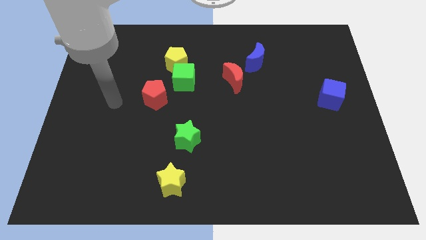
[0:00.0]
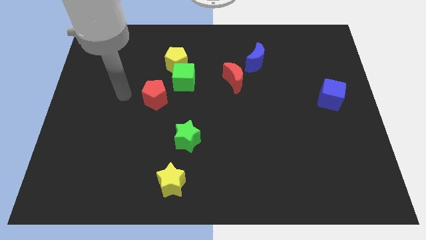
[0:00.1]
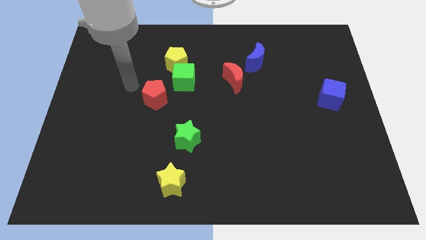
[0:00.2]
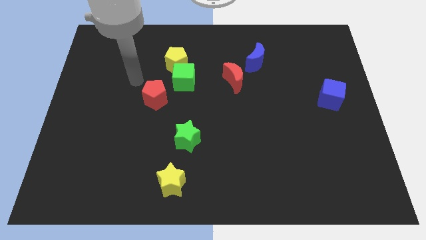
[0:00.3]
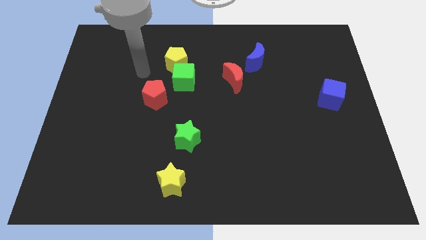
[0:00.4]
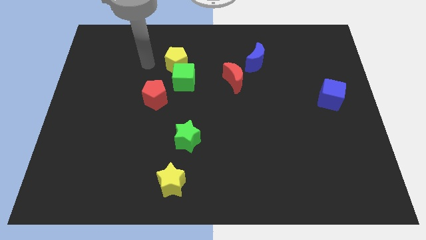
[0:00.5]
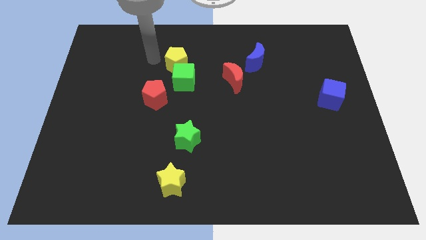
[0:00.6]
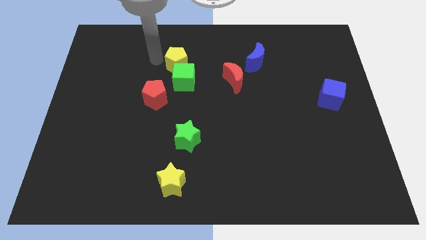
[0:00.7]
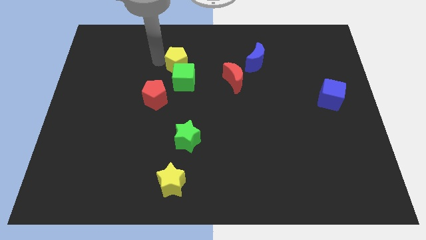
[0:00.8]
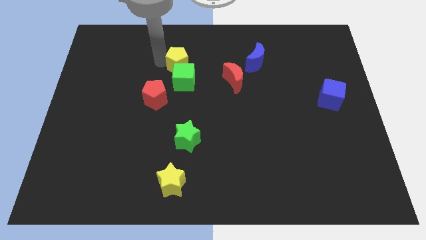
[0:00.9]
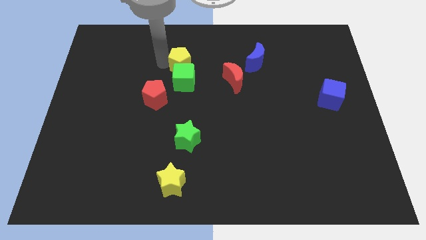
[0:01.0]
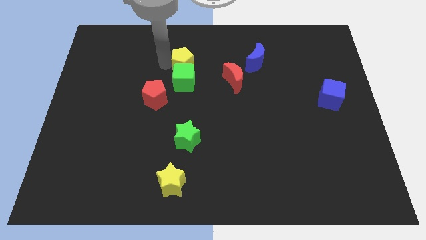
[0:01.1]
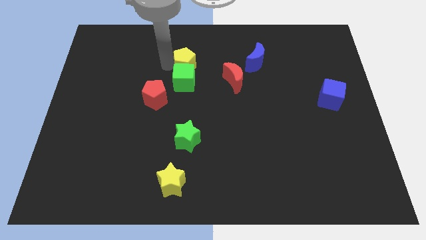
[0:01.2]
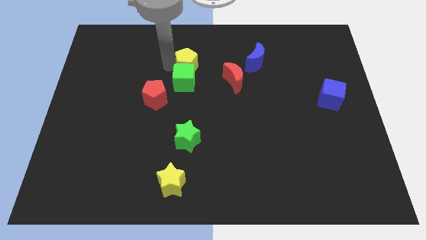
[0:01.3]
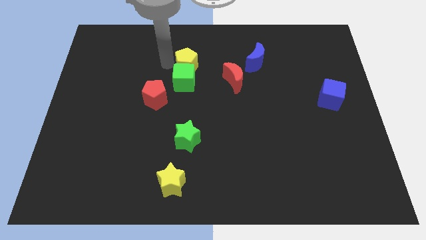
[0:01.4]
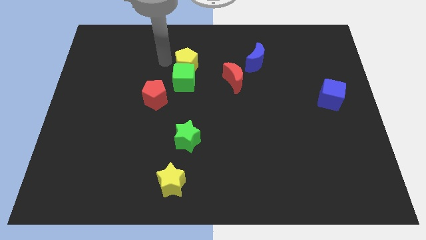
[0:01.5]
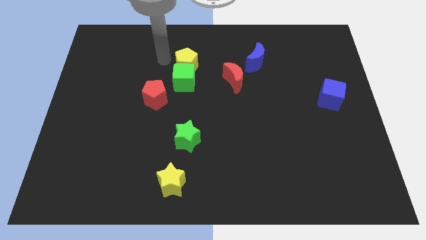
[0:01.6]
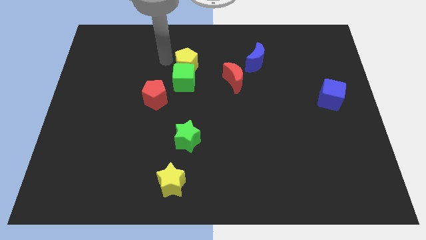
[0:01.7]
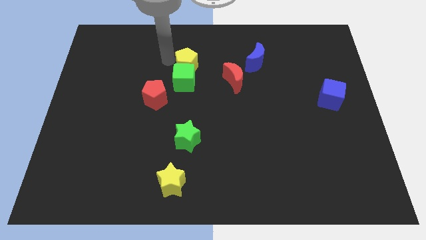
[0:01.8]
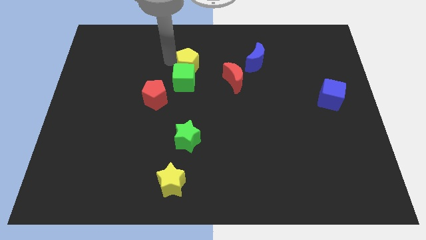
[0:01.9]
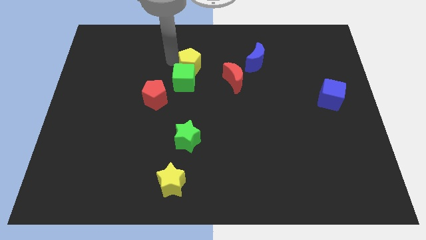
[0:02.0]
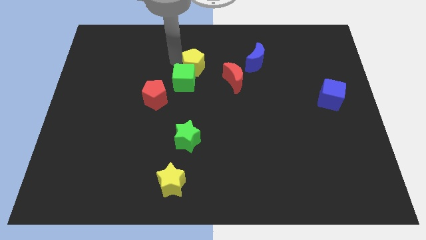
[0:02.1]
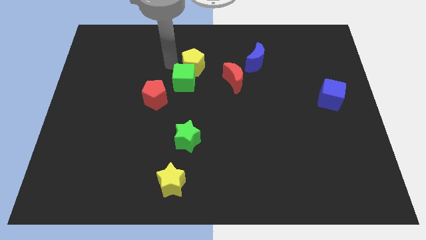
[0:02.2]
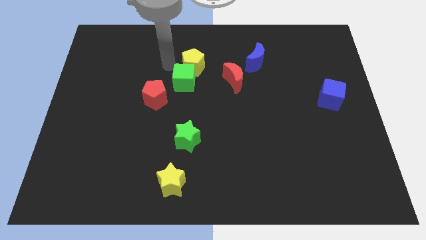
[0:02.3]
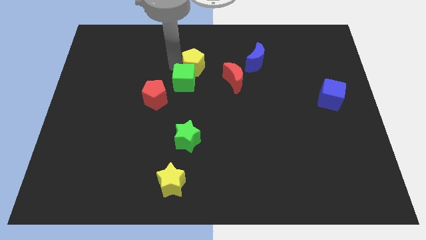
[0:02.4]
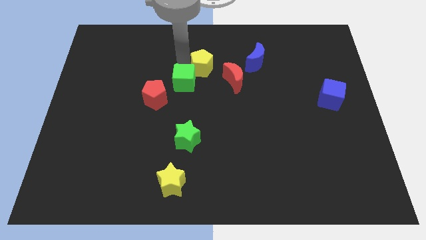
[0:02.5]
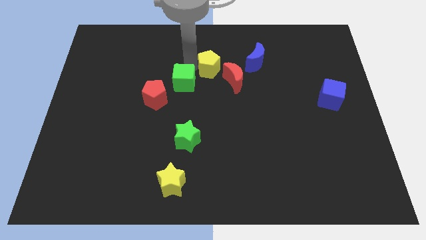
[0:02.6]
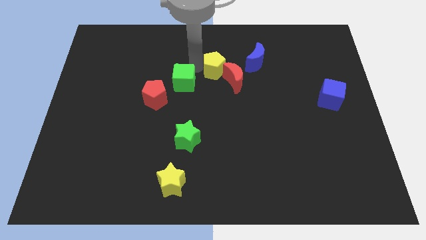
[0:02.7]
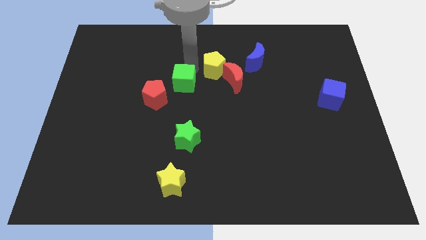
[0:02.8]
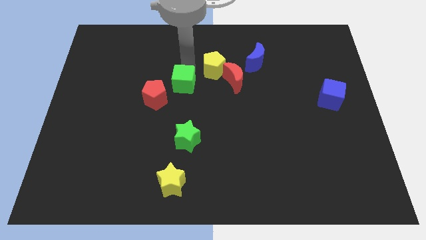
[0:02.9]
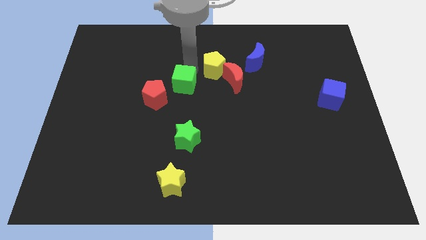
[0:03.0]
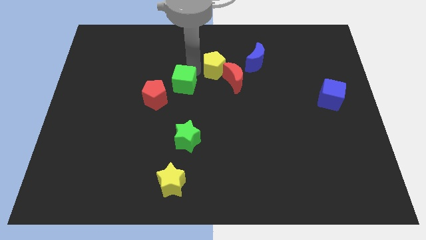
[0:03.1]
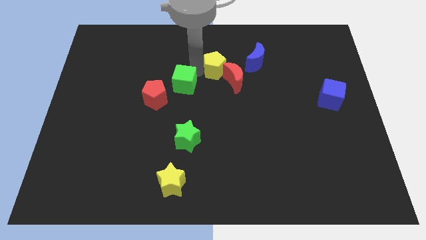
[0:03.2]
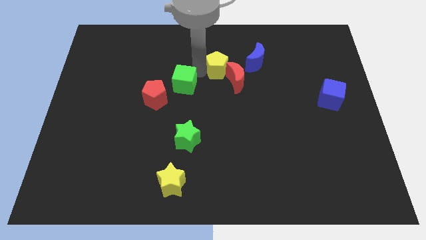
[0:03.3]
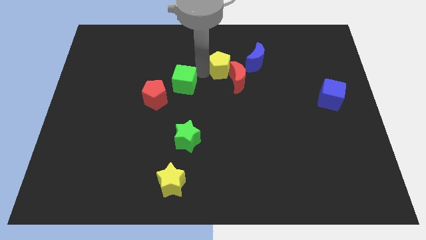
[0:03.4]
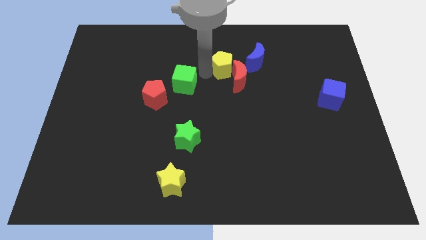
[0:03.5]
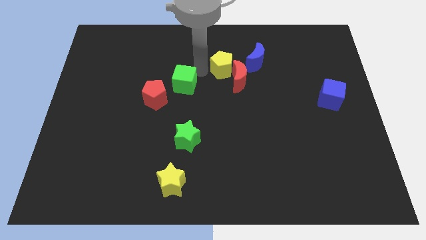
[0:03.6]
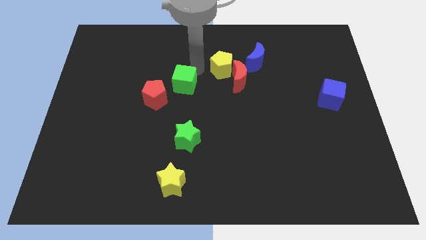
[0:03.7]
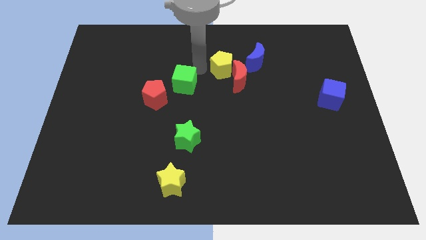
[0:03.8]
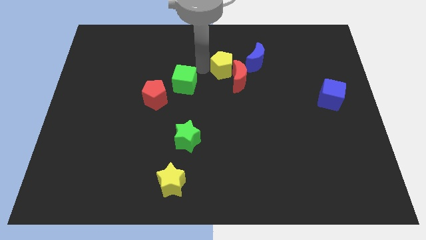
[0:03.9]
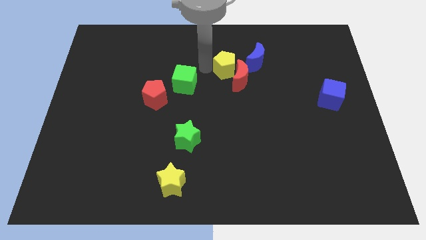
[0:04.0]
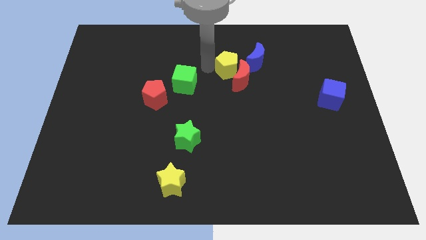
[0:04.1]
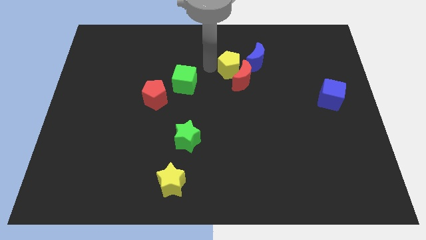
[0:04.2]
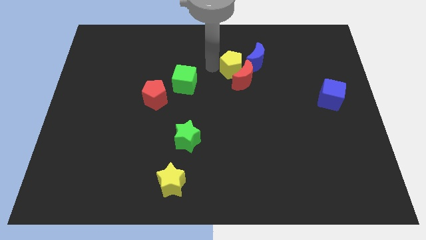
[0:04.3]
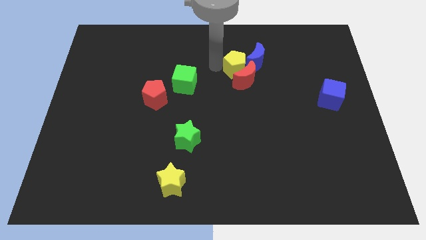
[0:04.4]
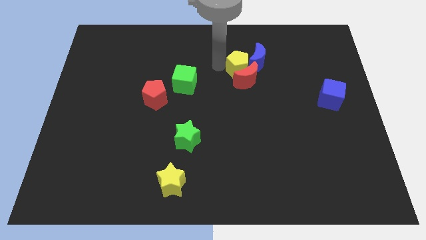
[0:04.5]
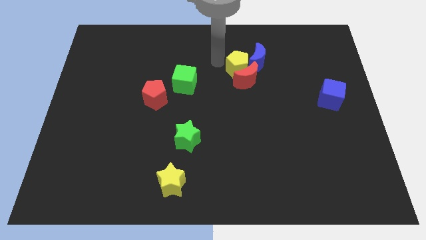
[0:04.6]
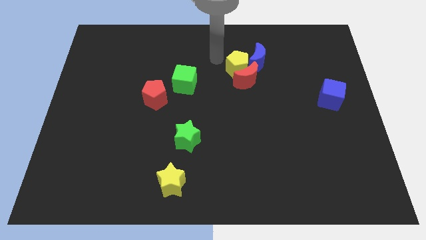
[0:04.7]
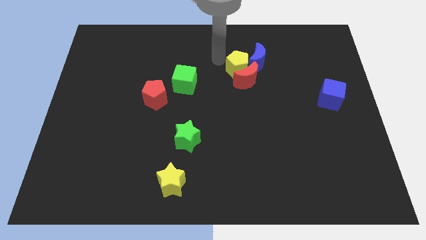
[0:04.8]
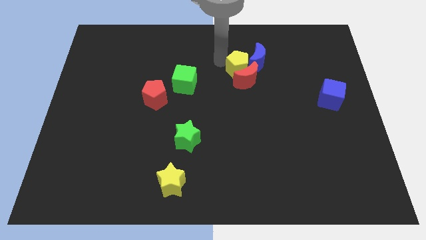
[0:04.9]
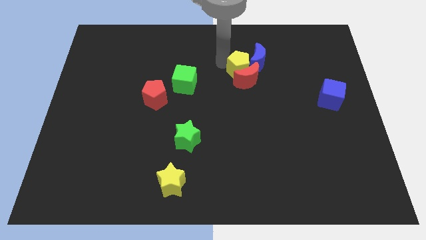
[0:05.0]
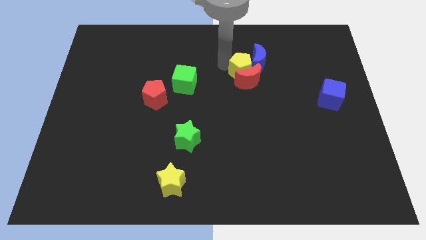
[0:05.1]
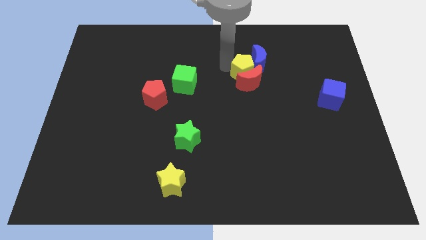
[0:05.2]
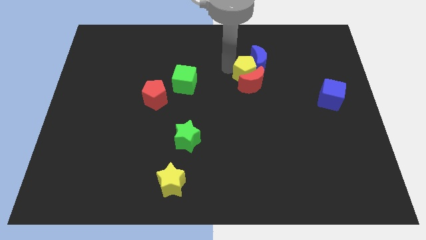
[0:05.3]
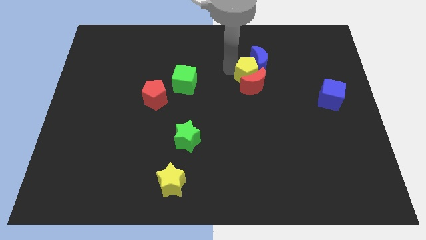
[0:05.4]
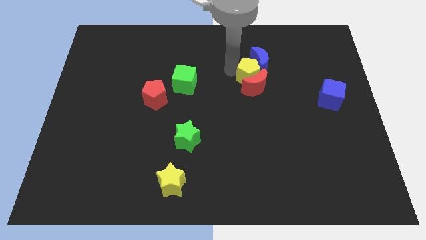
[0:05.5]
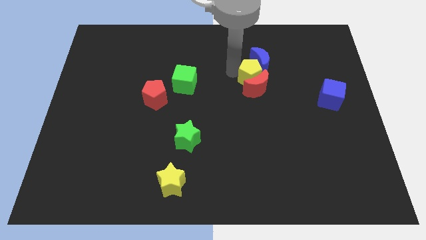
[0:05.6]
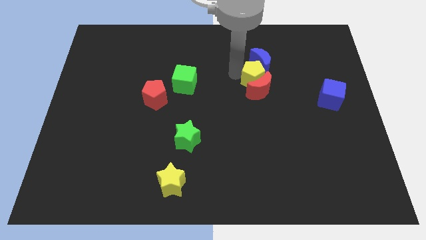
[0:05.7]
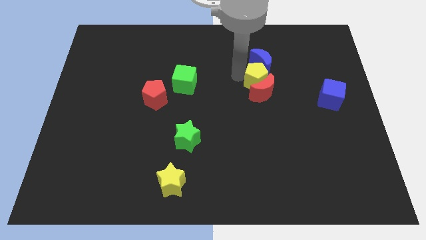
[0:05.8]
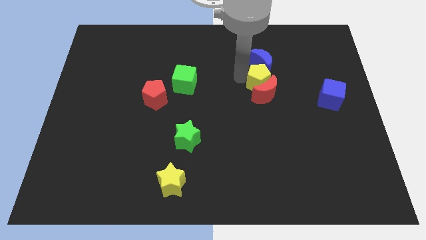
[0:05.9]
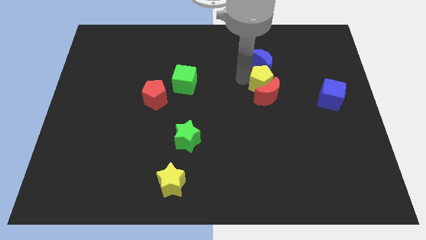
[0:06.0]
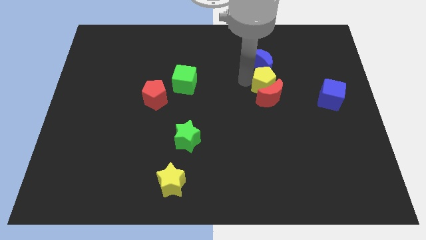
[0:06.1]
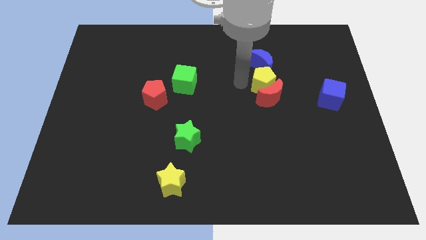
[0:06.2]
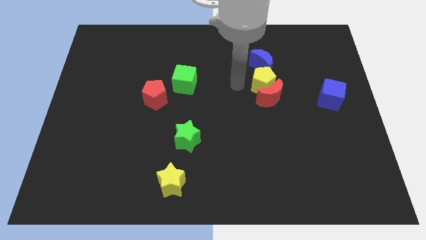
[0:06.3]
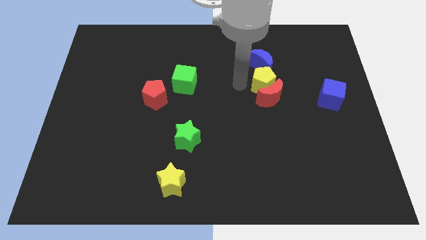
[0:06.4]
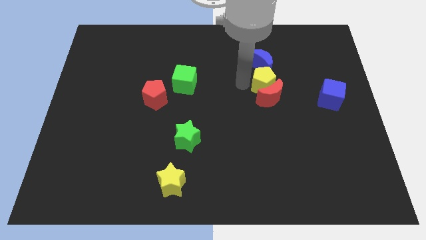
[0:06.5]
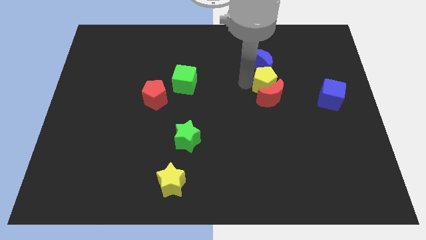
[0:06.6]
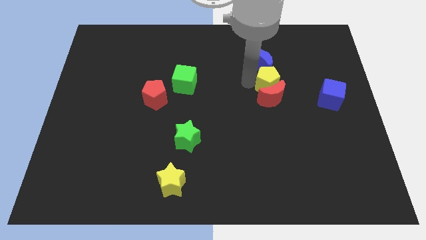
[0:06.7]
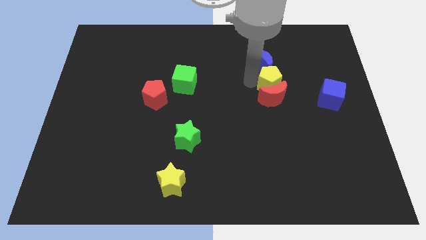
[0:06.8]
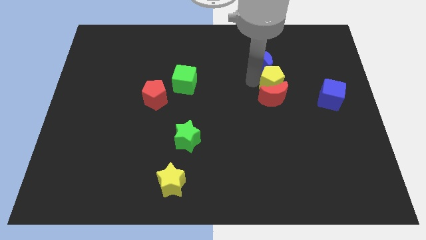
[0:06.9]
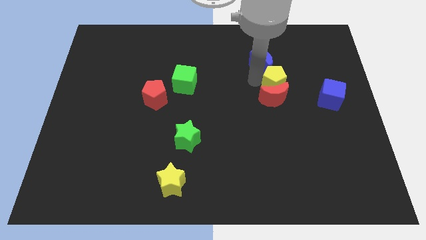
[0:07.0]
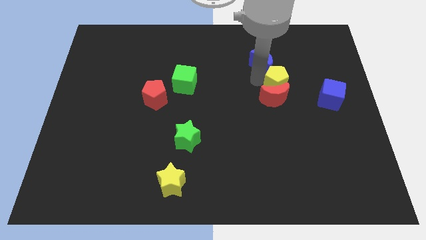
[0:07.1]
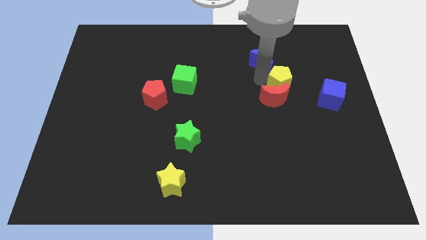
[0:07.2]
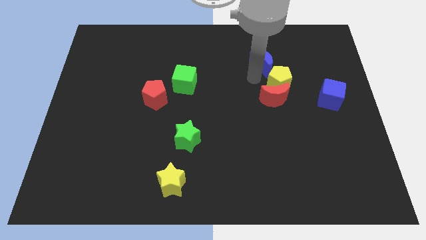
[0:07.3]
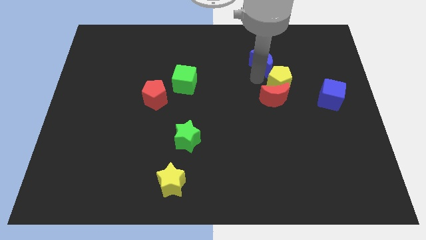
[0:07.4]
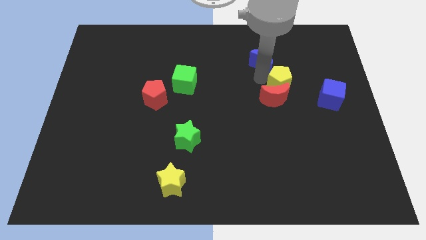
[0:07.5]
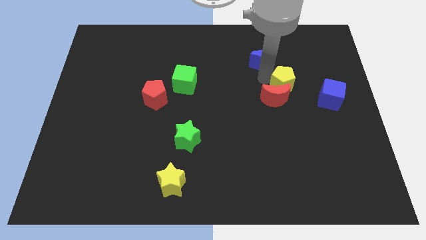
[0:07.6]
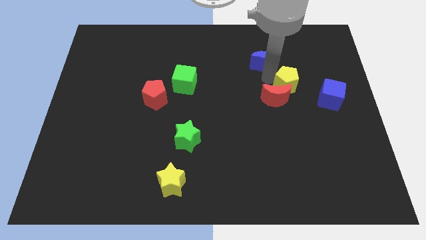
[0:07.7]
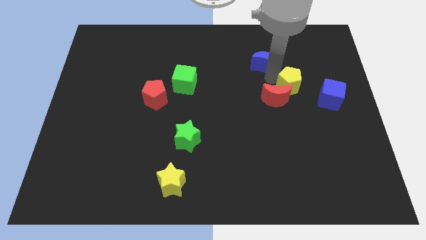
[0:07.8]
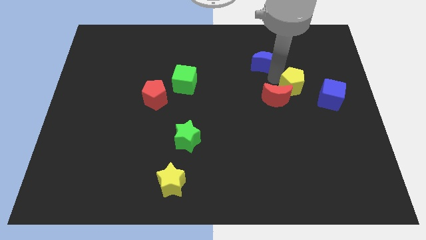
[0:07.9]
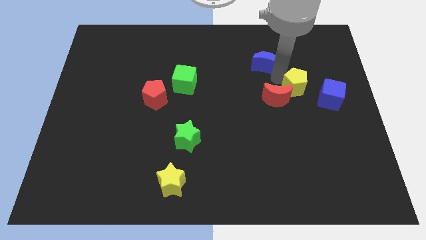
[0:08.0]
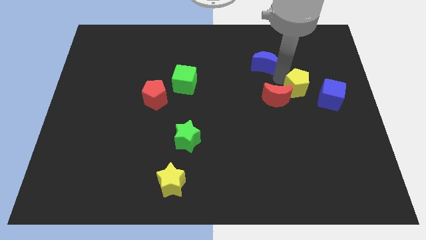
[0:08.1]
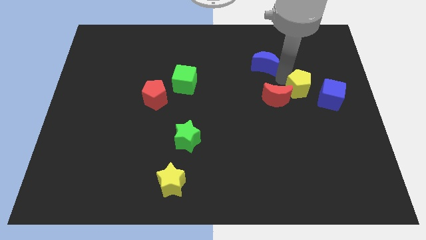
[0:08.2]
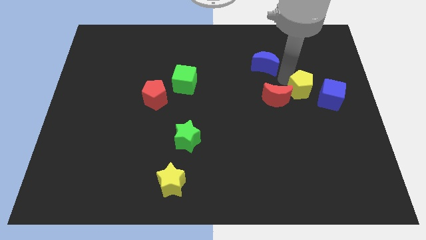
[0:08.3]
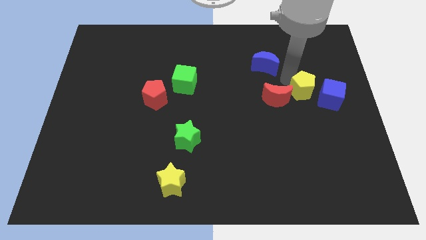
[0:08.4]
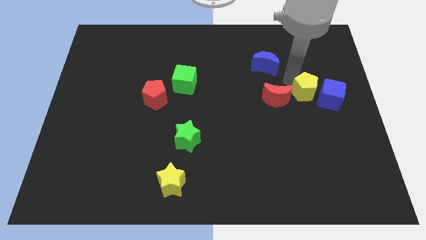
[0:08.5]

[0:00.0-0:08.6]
slide the yellow pentagon next to the blue cube
